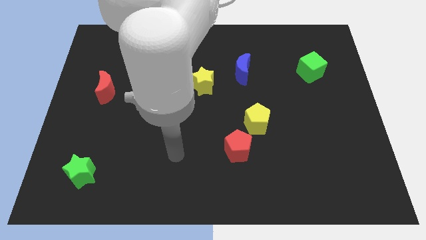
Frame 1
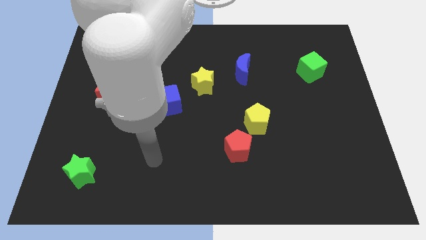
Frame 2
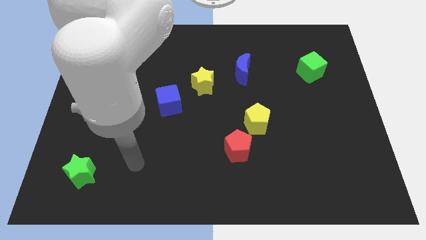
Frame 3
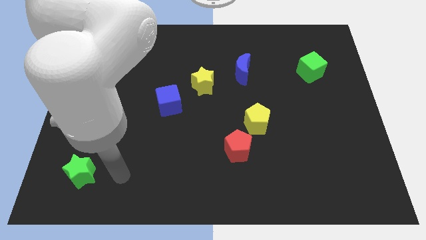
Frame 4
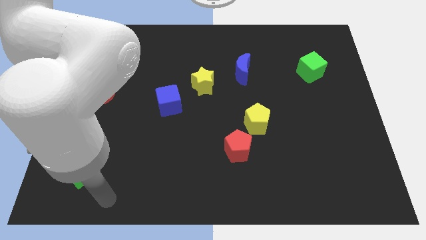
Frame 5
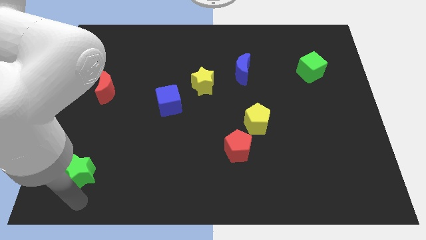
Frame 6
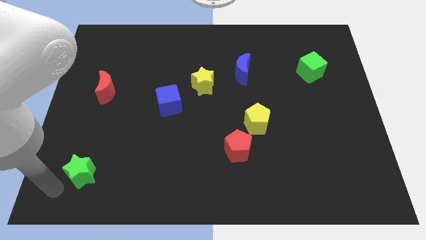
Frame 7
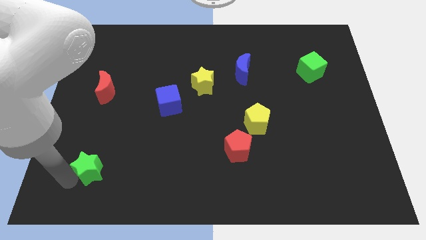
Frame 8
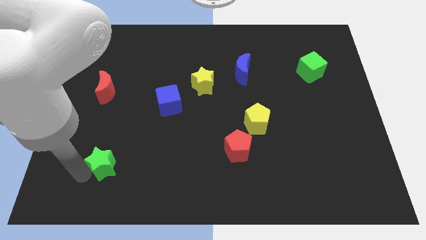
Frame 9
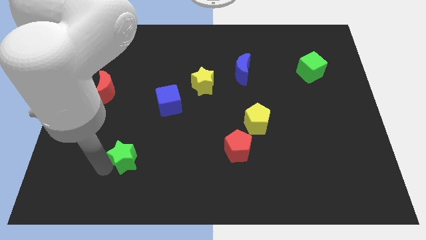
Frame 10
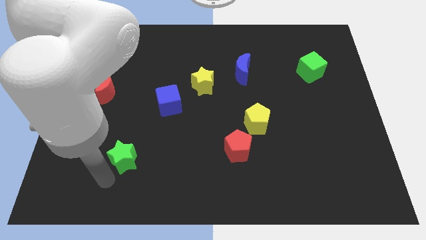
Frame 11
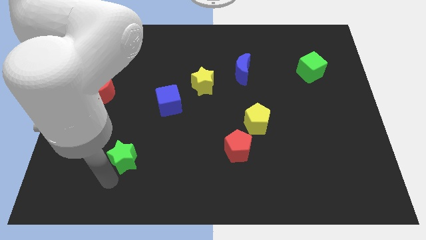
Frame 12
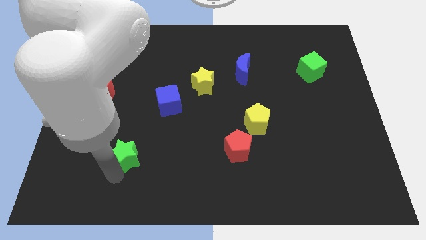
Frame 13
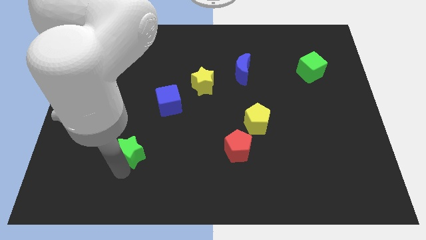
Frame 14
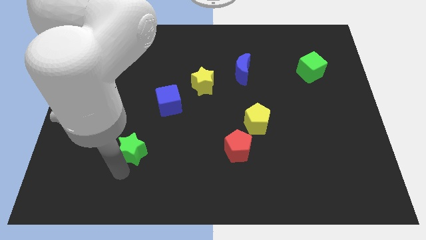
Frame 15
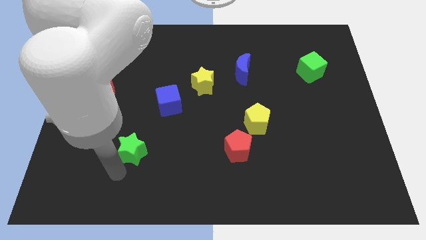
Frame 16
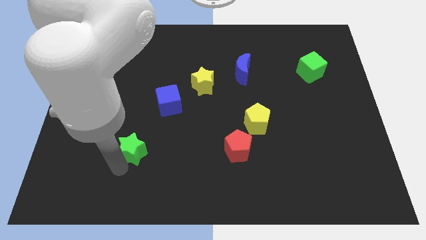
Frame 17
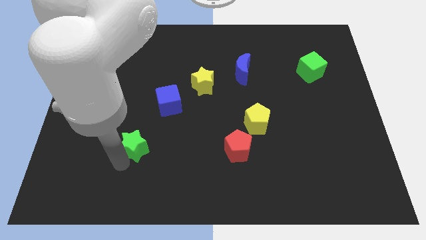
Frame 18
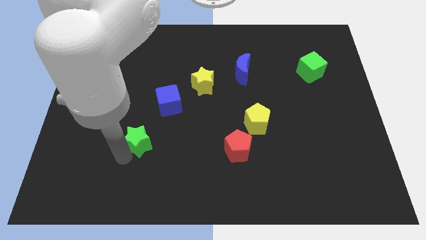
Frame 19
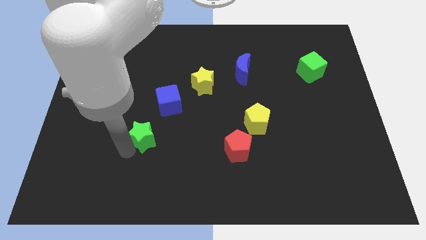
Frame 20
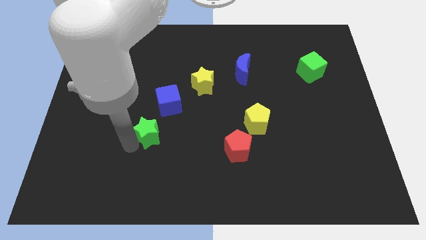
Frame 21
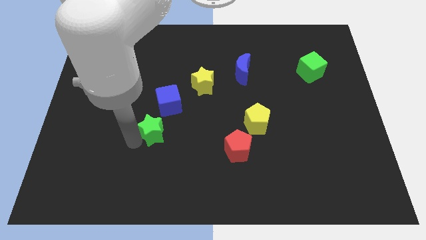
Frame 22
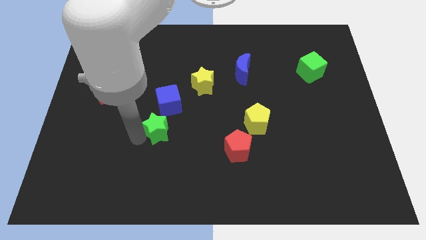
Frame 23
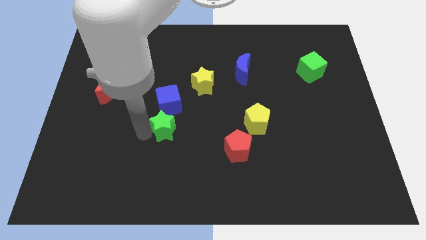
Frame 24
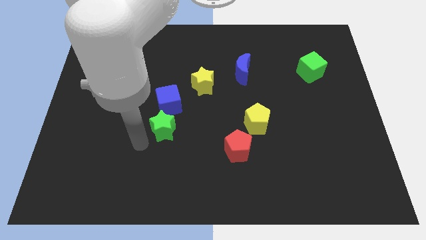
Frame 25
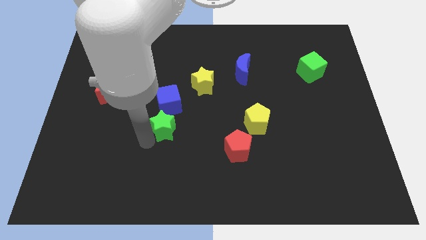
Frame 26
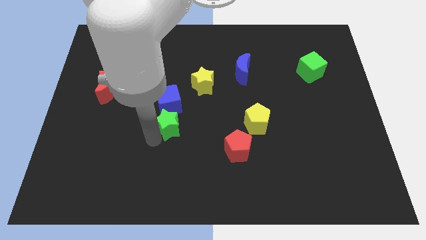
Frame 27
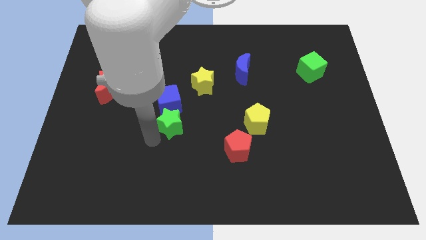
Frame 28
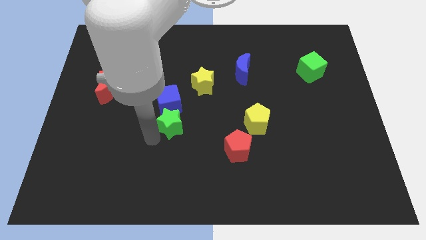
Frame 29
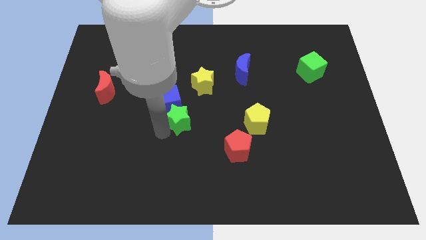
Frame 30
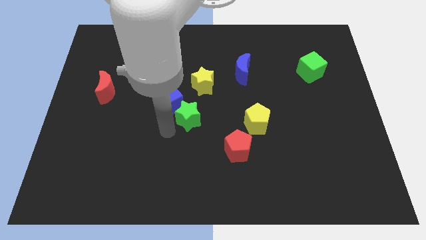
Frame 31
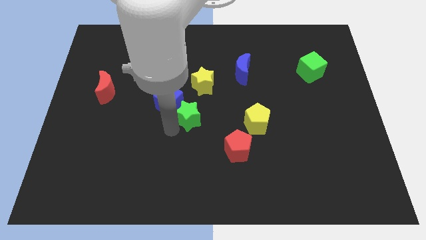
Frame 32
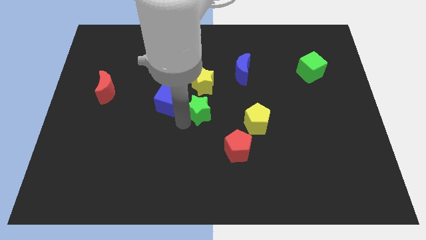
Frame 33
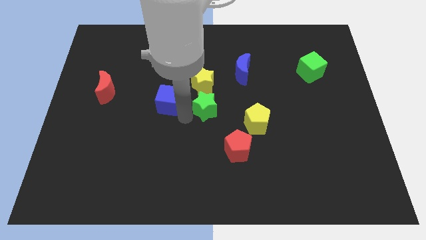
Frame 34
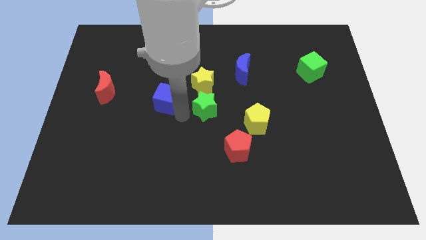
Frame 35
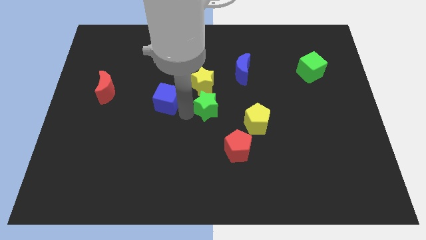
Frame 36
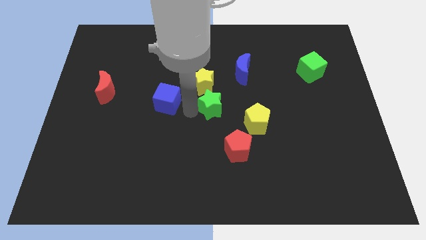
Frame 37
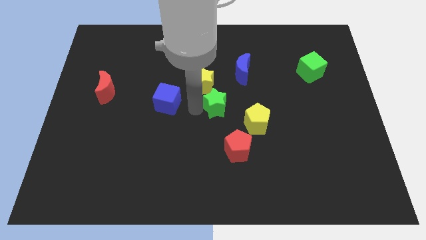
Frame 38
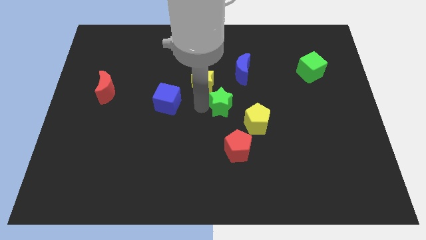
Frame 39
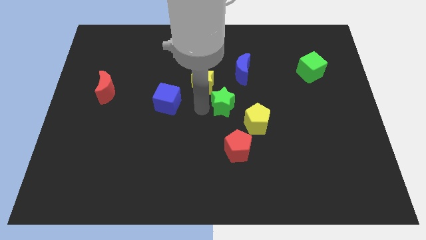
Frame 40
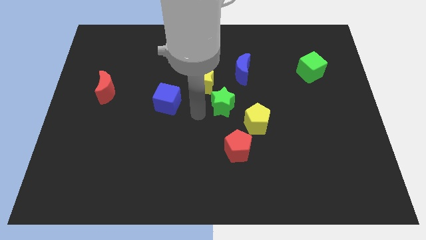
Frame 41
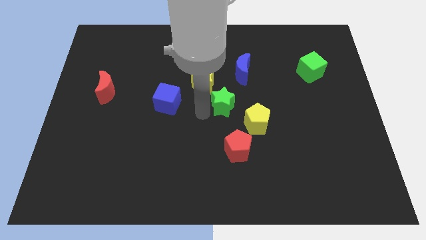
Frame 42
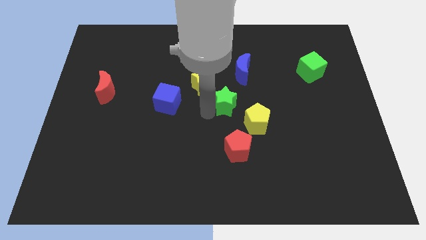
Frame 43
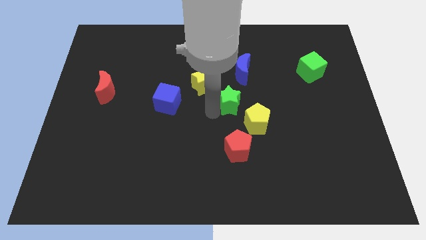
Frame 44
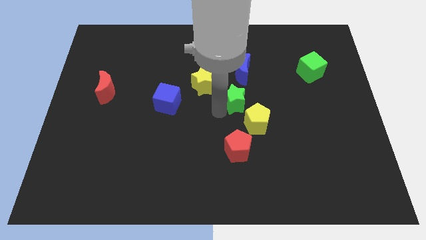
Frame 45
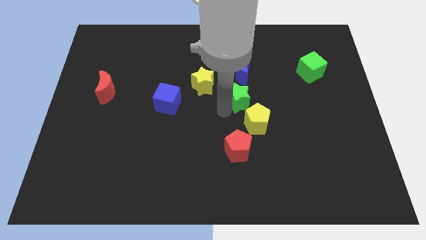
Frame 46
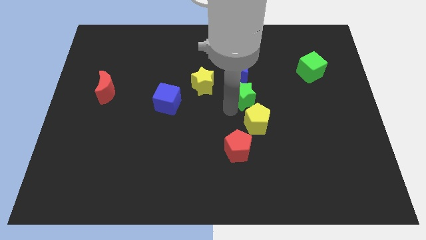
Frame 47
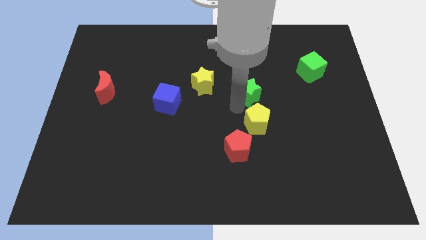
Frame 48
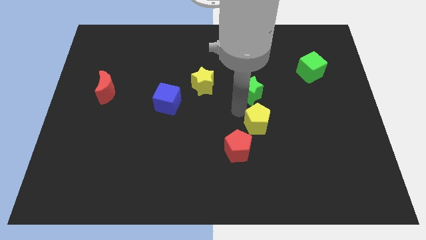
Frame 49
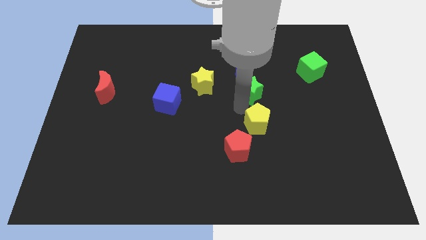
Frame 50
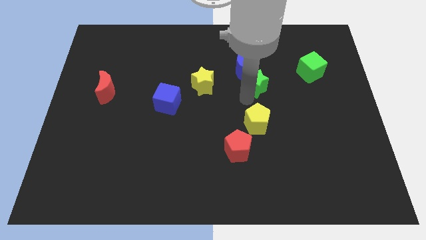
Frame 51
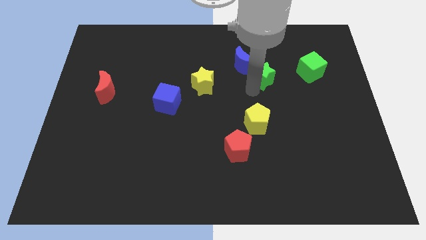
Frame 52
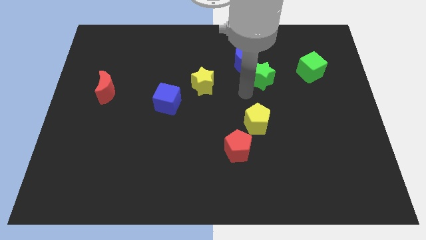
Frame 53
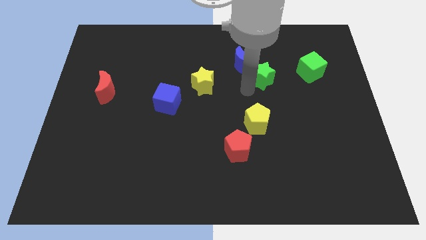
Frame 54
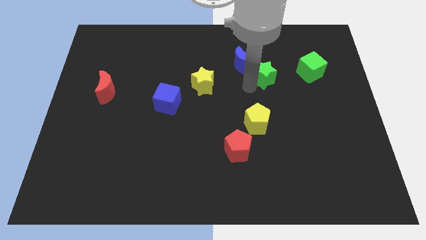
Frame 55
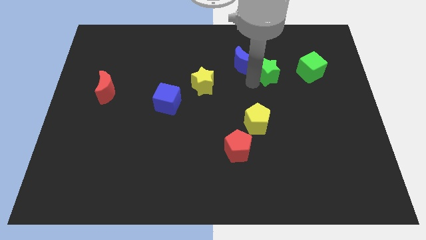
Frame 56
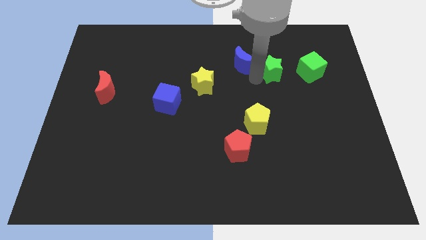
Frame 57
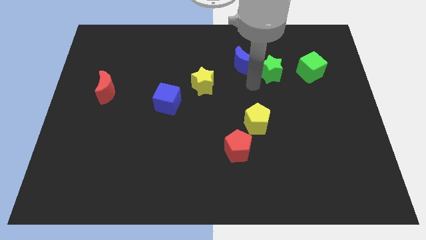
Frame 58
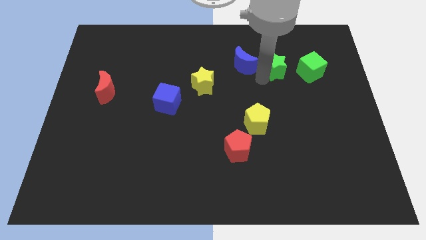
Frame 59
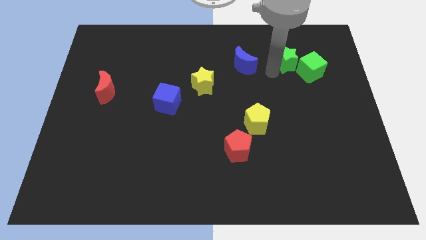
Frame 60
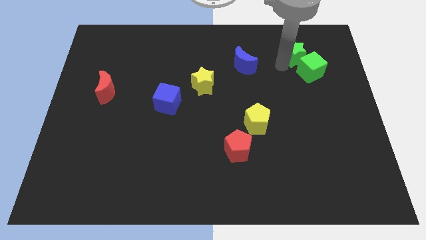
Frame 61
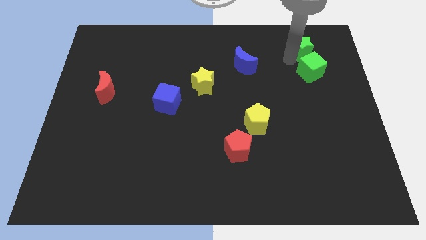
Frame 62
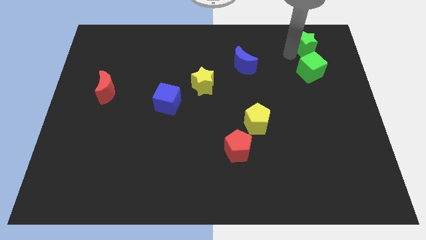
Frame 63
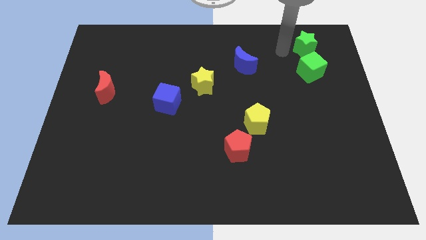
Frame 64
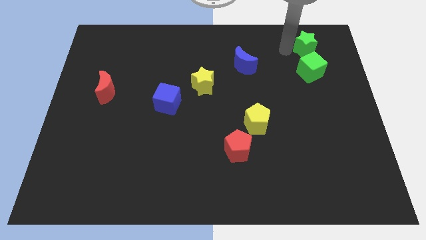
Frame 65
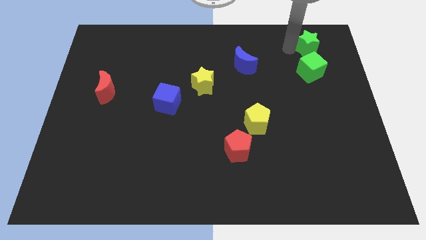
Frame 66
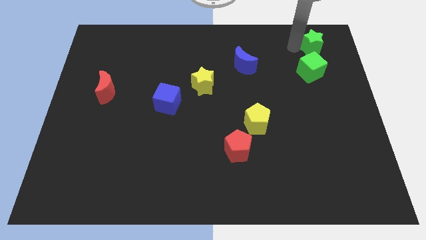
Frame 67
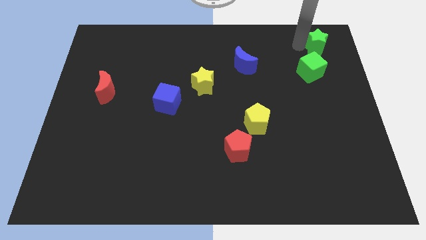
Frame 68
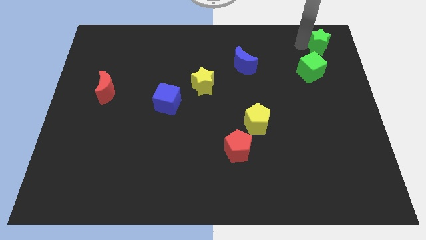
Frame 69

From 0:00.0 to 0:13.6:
slide the green star to the top right

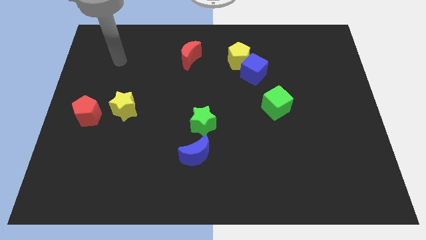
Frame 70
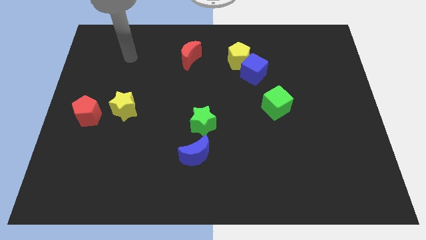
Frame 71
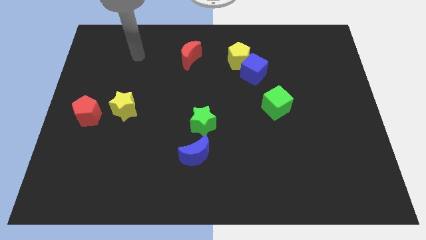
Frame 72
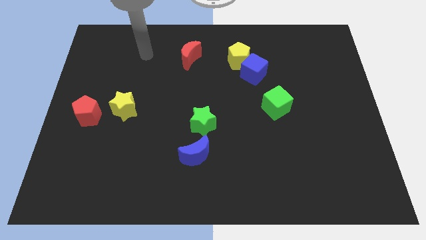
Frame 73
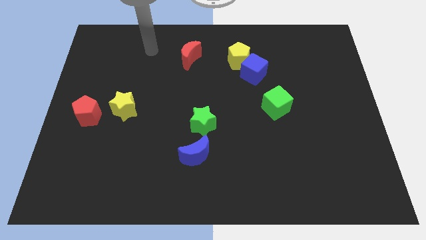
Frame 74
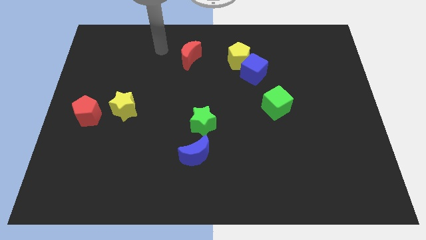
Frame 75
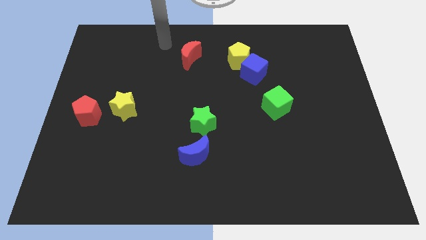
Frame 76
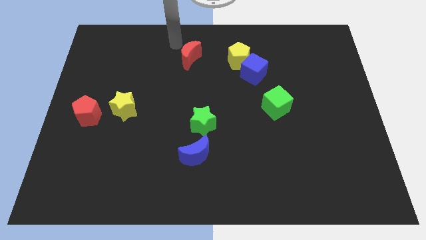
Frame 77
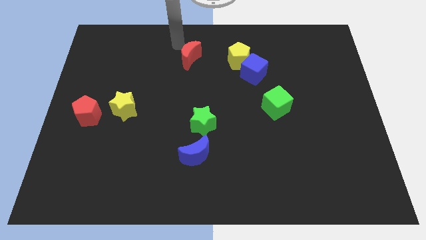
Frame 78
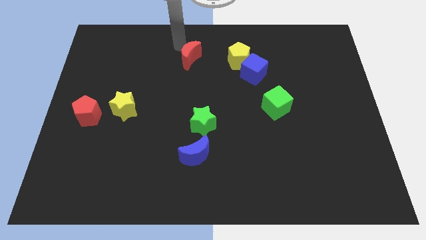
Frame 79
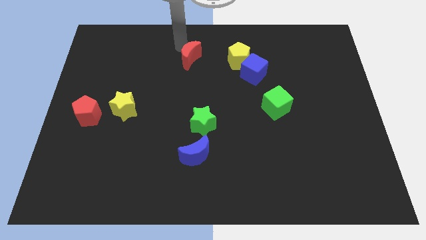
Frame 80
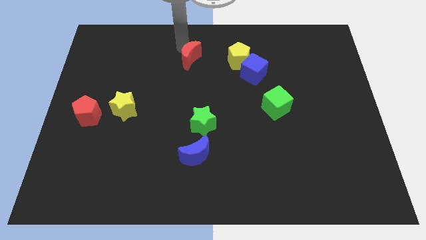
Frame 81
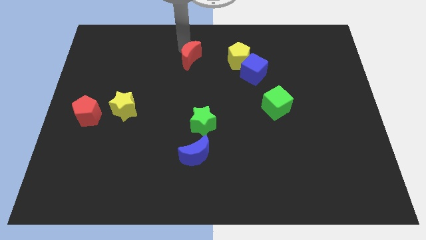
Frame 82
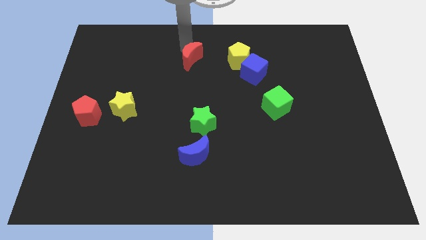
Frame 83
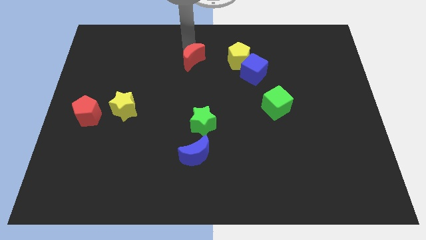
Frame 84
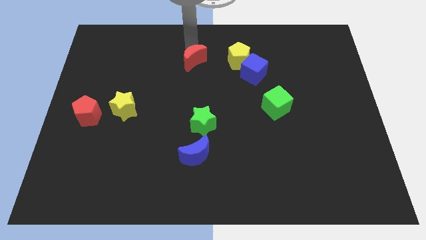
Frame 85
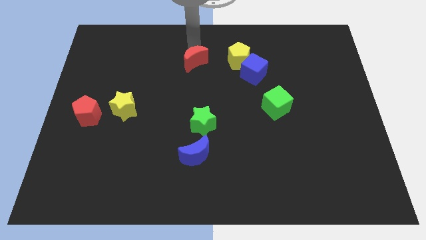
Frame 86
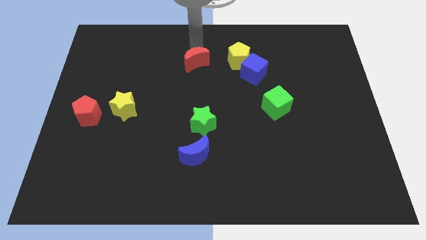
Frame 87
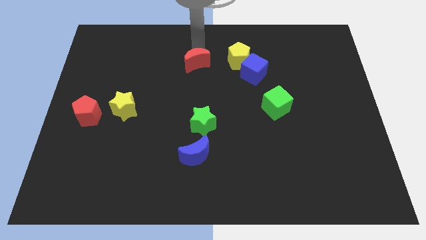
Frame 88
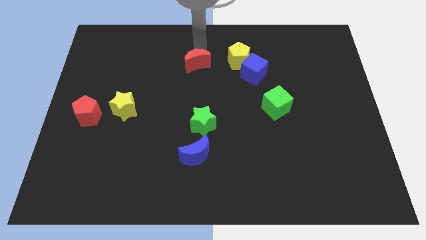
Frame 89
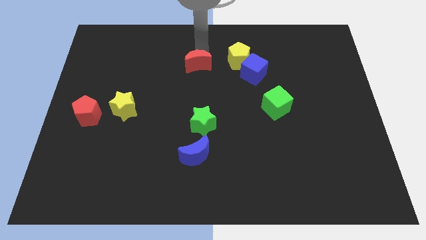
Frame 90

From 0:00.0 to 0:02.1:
move the red moon to the center of the board
